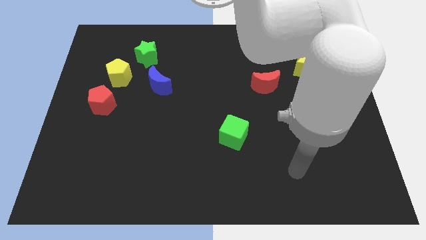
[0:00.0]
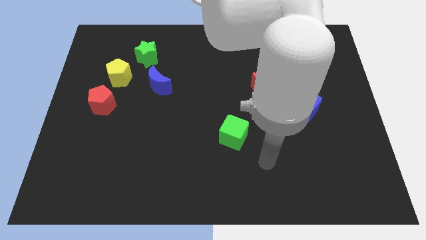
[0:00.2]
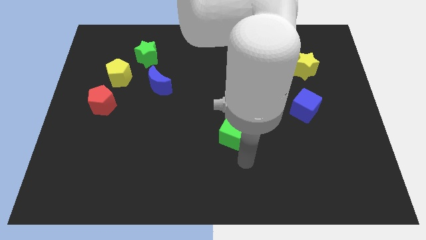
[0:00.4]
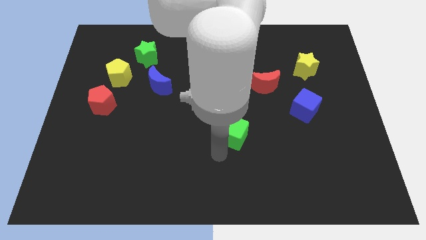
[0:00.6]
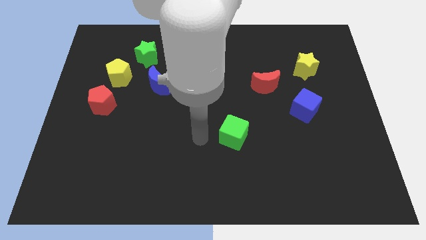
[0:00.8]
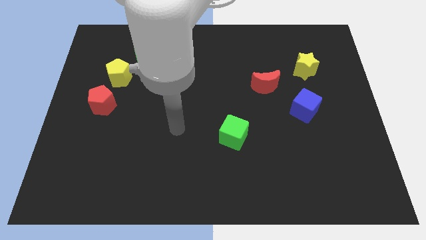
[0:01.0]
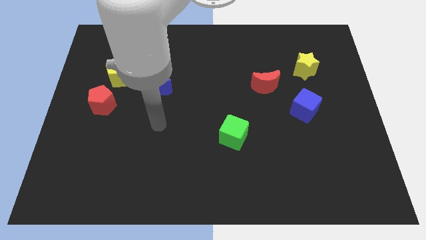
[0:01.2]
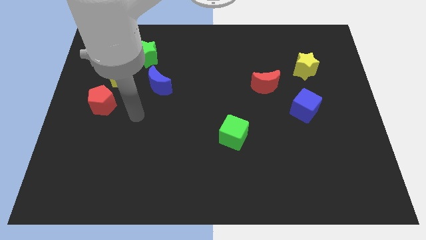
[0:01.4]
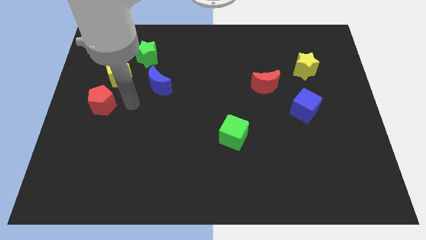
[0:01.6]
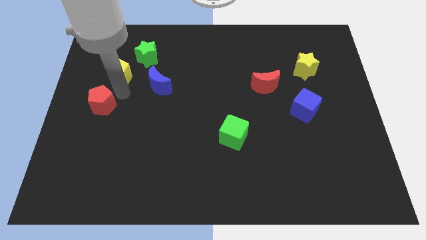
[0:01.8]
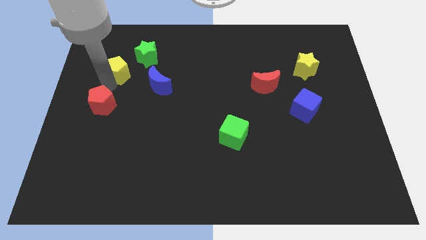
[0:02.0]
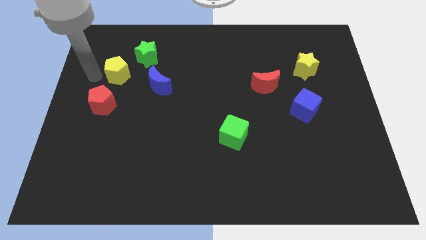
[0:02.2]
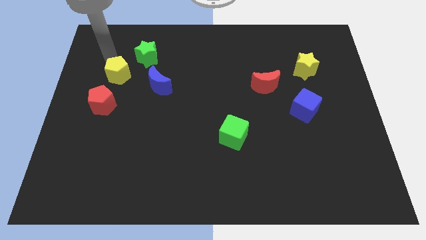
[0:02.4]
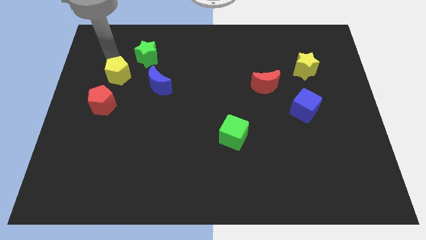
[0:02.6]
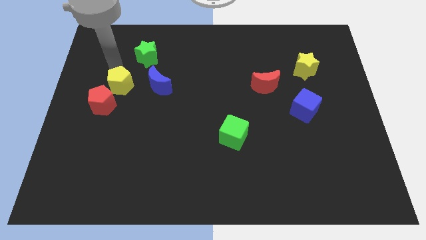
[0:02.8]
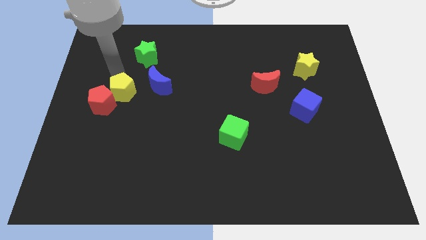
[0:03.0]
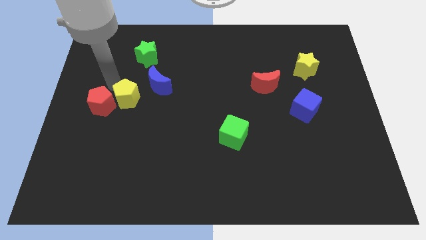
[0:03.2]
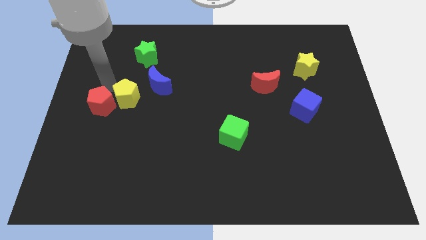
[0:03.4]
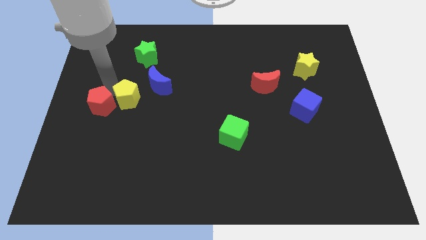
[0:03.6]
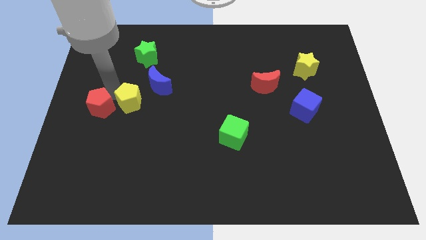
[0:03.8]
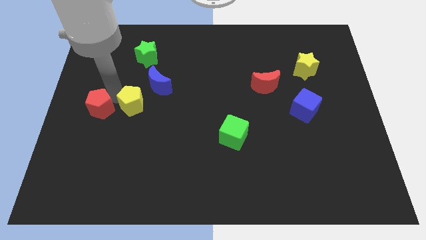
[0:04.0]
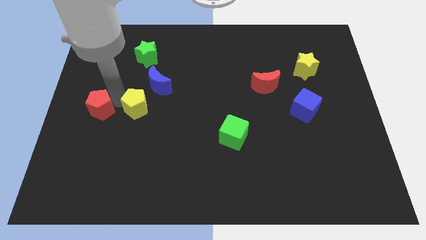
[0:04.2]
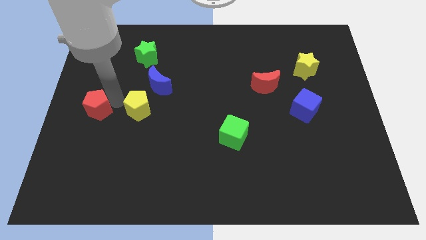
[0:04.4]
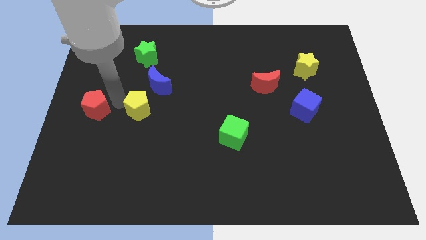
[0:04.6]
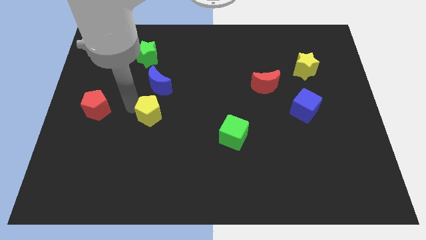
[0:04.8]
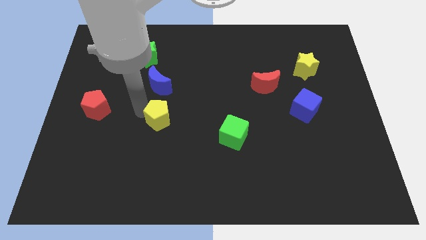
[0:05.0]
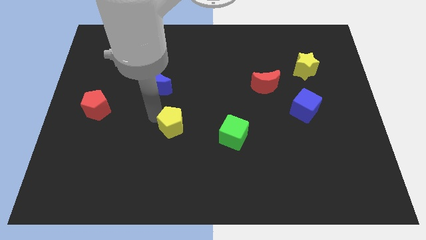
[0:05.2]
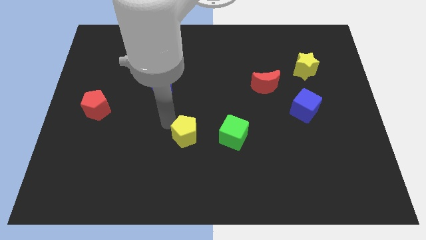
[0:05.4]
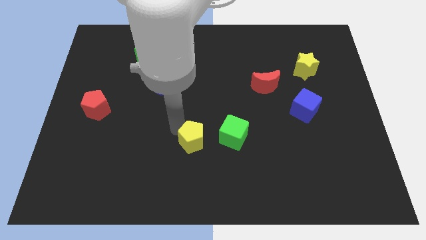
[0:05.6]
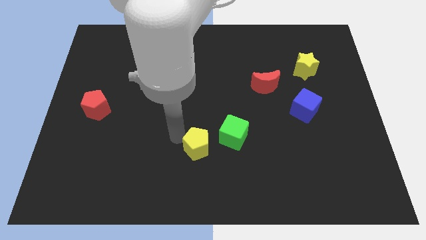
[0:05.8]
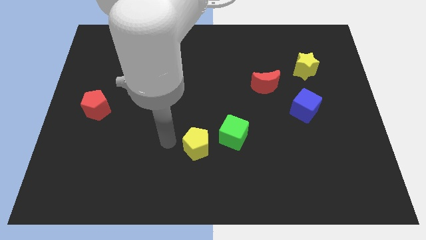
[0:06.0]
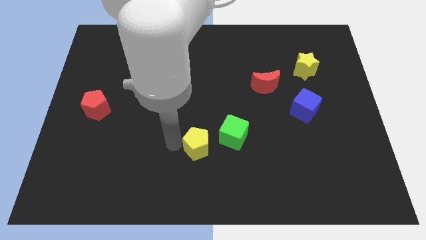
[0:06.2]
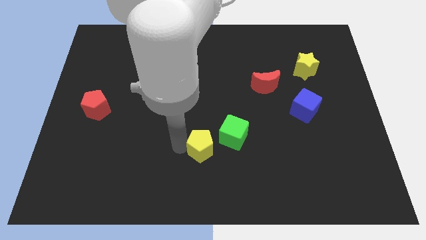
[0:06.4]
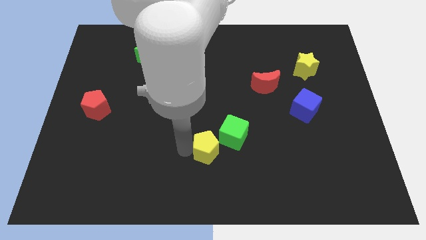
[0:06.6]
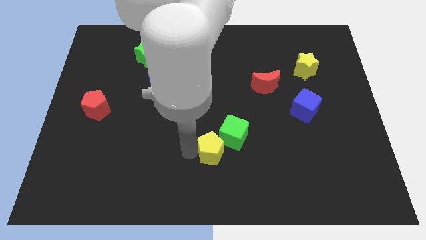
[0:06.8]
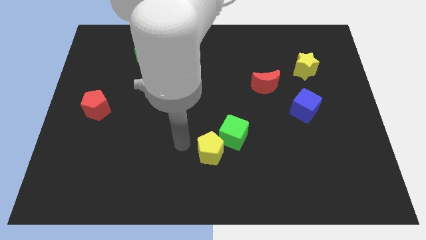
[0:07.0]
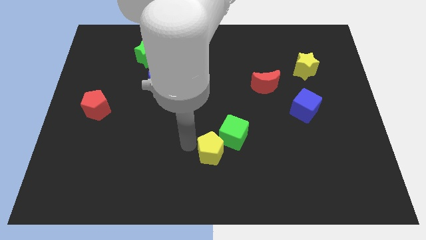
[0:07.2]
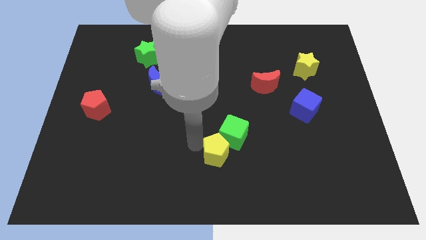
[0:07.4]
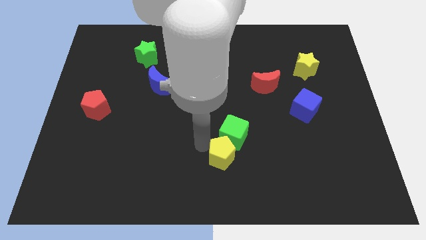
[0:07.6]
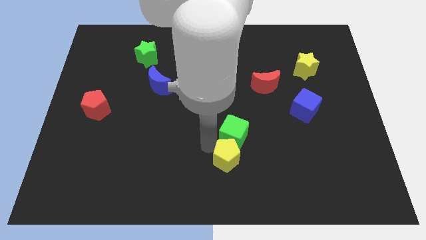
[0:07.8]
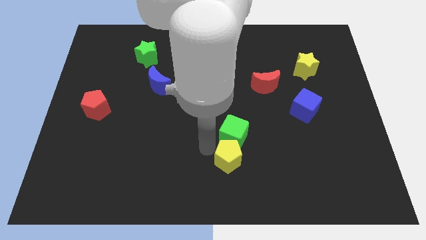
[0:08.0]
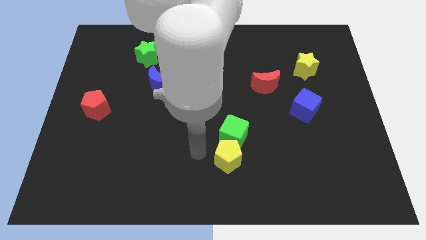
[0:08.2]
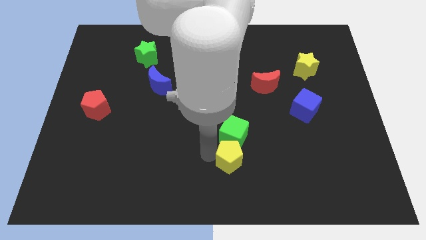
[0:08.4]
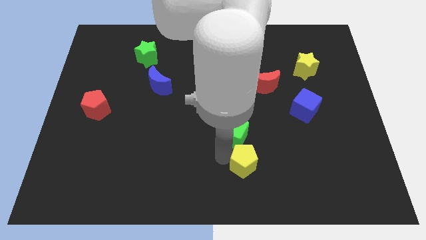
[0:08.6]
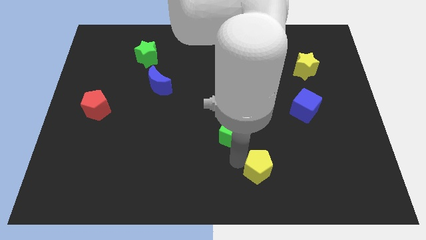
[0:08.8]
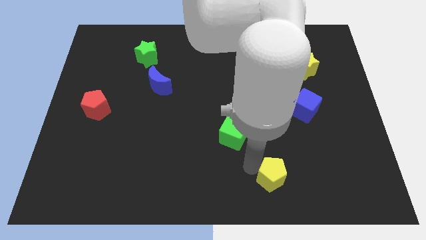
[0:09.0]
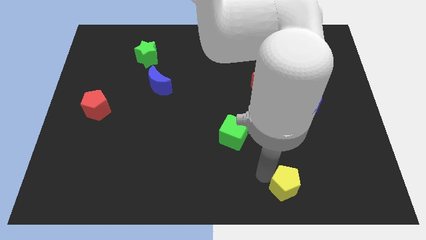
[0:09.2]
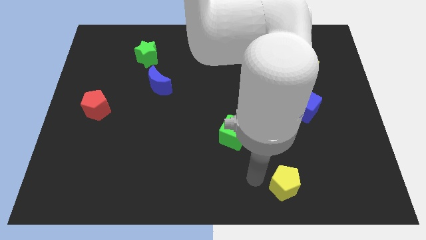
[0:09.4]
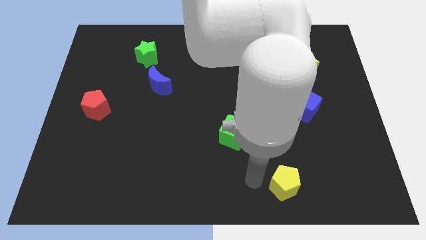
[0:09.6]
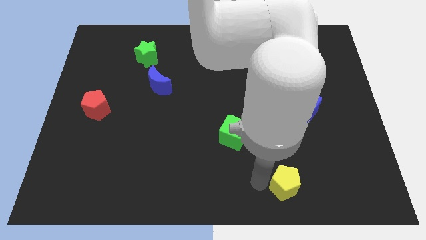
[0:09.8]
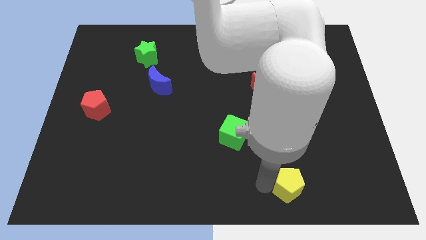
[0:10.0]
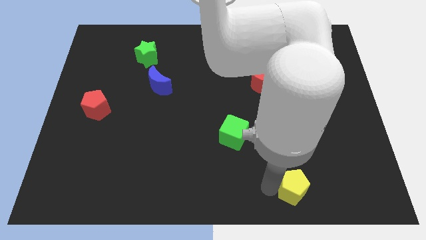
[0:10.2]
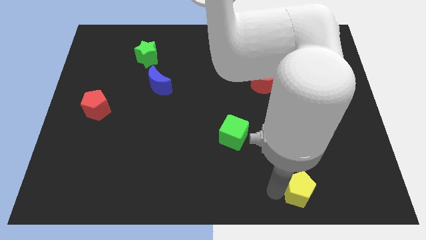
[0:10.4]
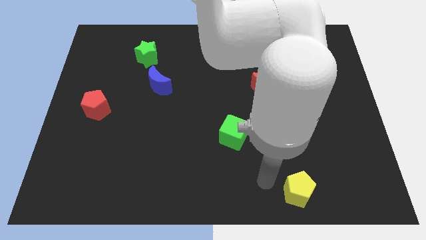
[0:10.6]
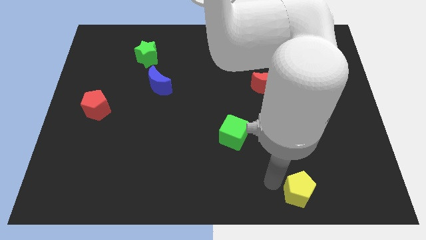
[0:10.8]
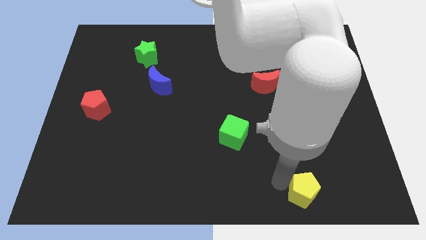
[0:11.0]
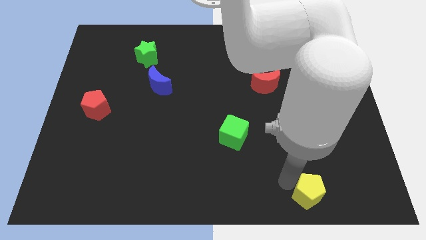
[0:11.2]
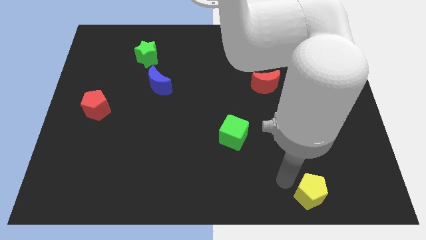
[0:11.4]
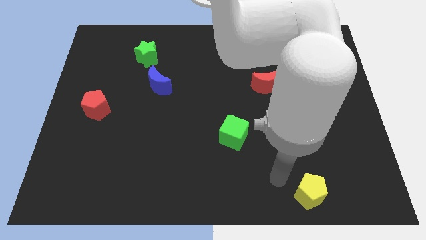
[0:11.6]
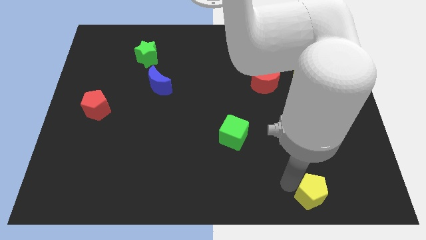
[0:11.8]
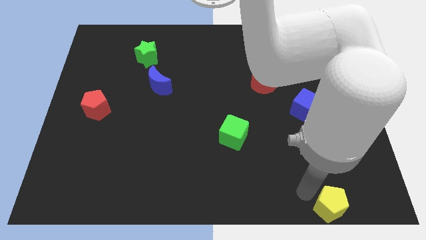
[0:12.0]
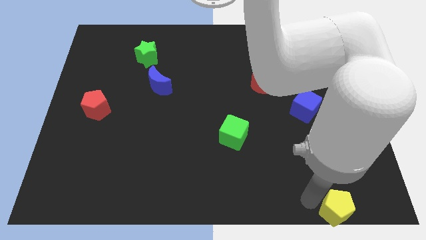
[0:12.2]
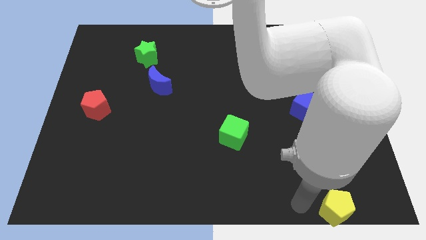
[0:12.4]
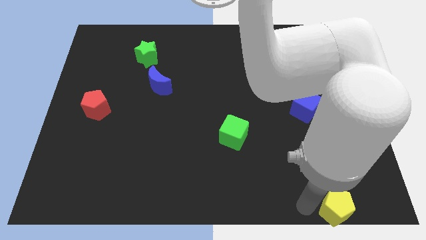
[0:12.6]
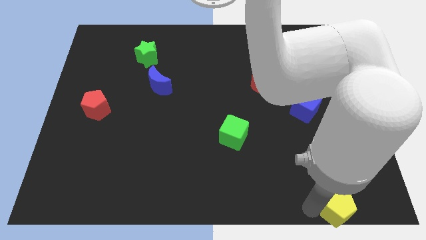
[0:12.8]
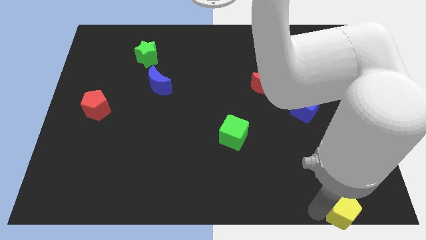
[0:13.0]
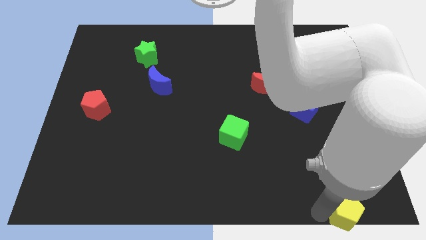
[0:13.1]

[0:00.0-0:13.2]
slide the yellow pentagon to the bottom right corner

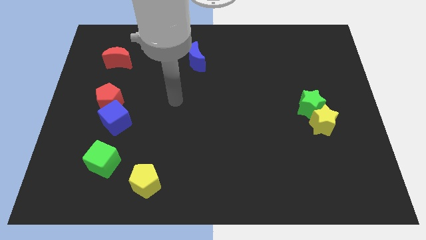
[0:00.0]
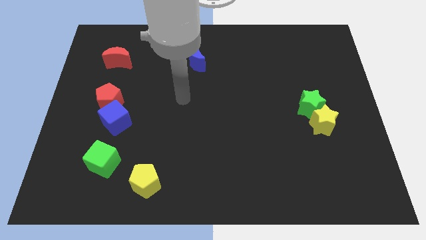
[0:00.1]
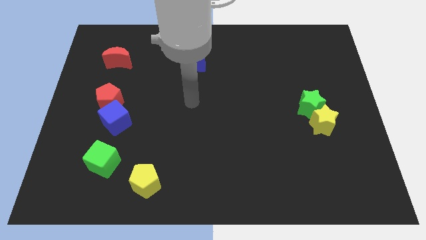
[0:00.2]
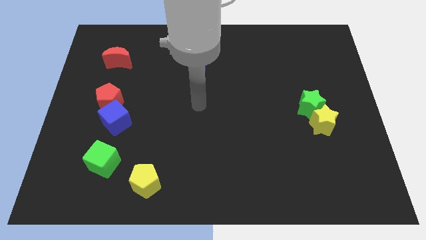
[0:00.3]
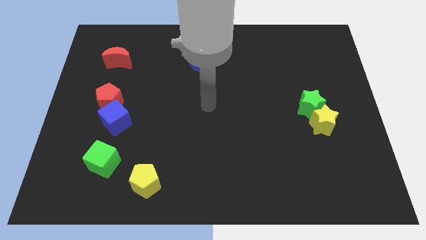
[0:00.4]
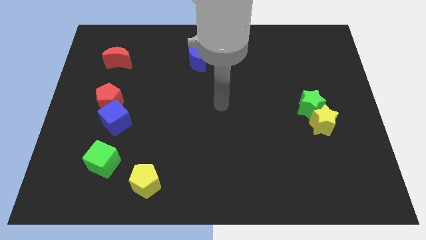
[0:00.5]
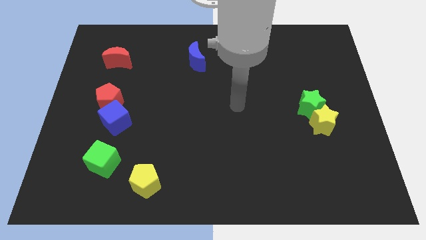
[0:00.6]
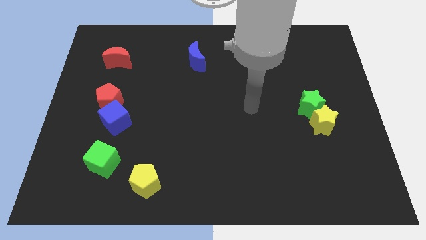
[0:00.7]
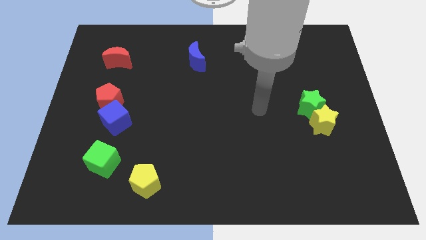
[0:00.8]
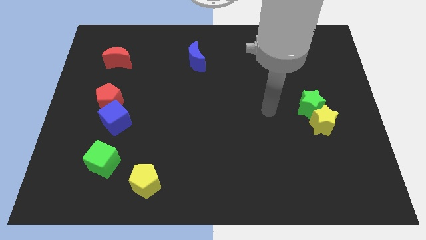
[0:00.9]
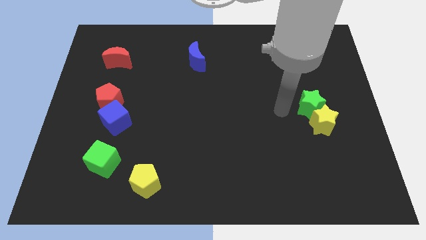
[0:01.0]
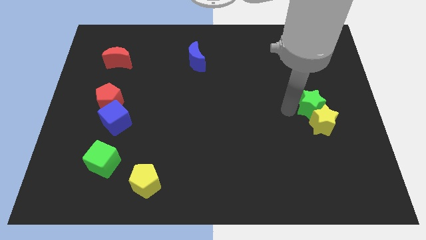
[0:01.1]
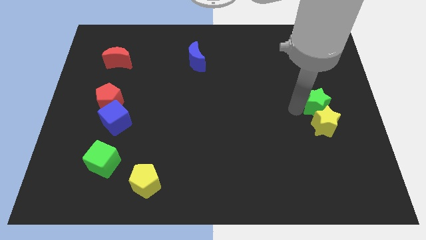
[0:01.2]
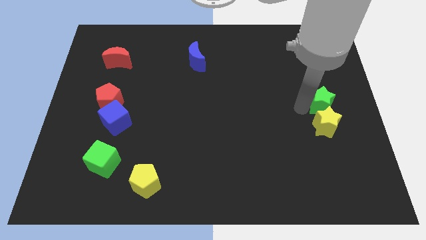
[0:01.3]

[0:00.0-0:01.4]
slide the green star to the center right
